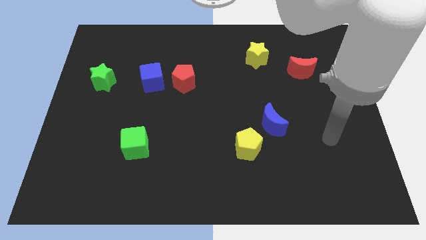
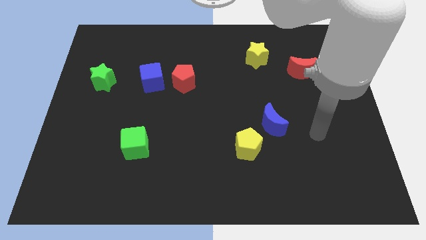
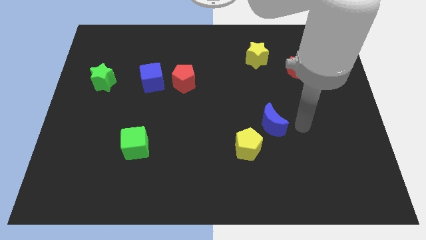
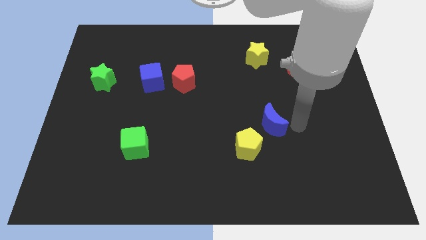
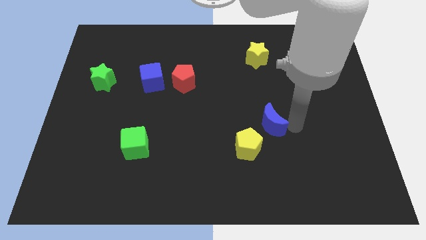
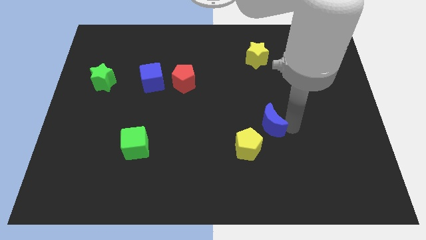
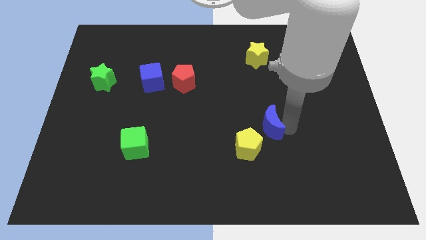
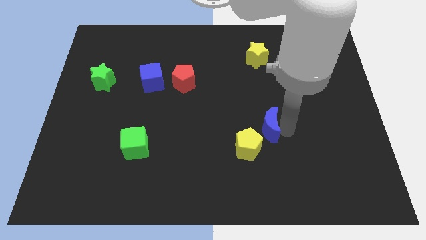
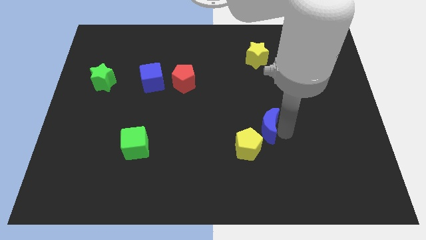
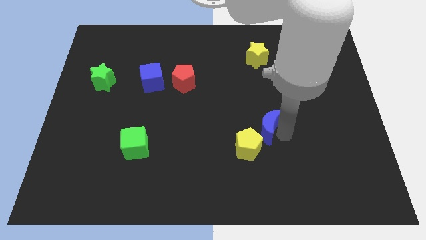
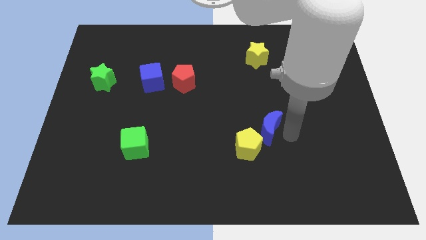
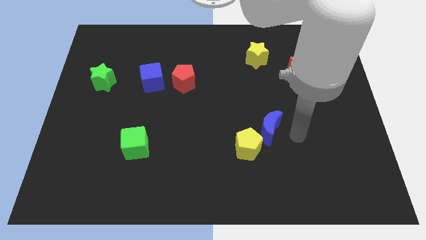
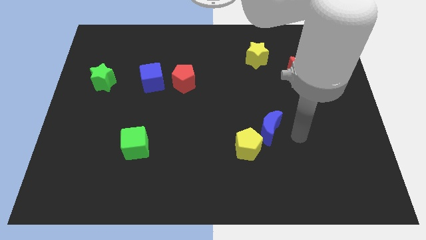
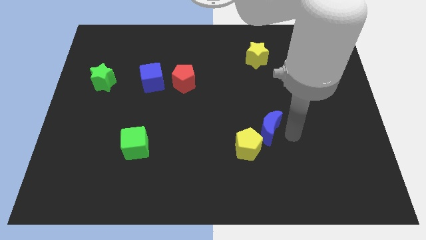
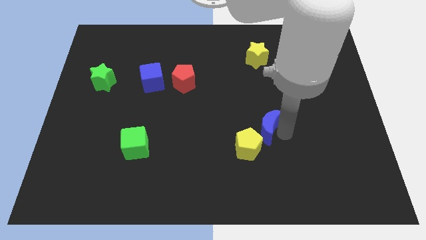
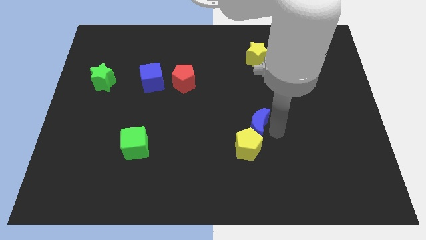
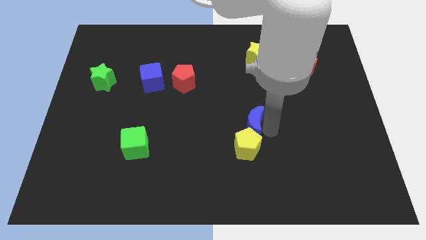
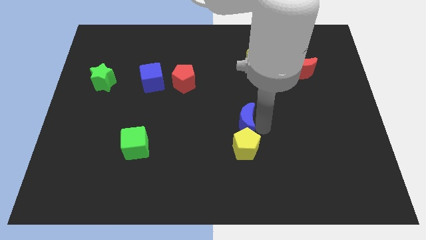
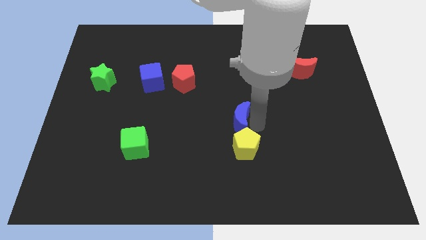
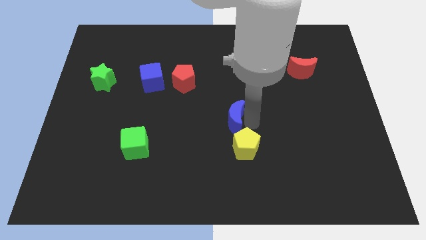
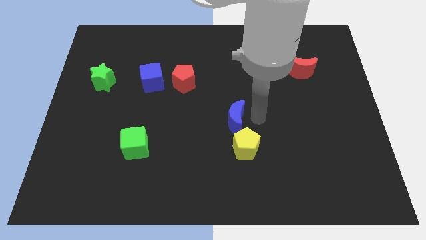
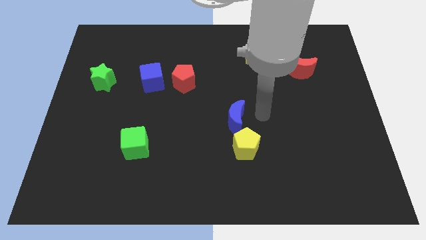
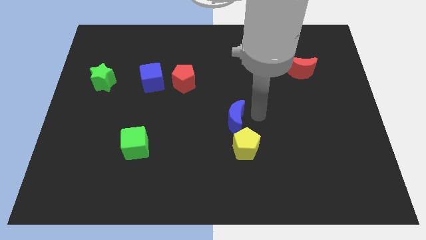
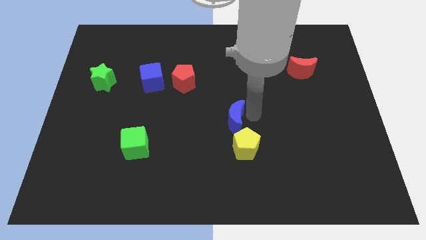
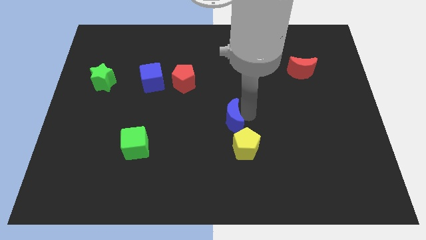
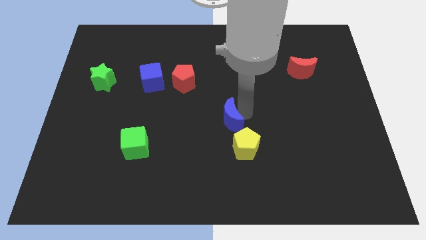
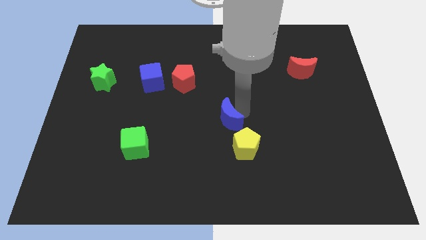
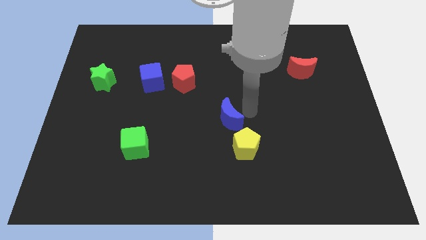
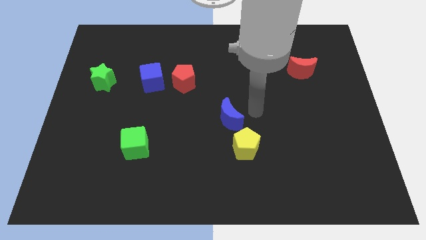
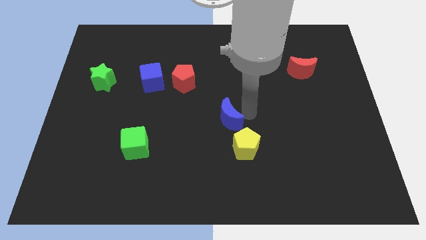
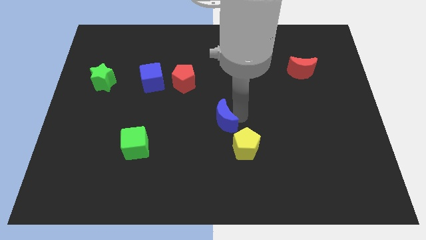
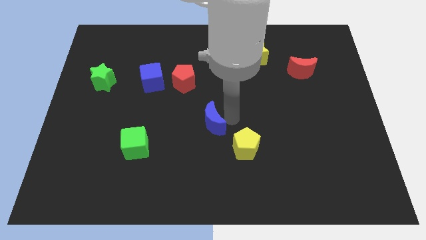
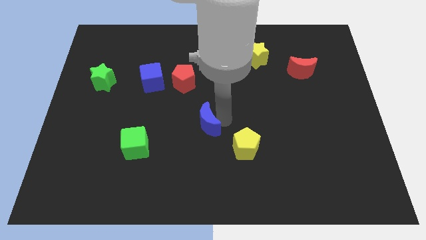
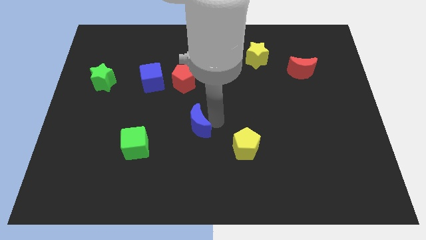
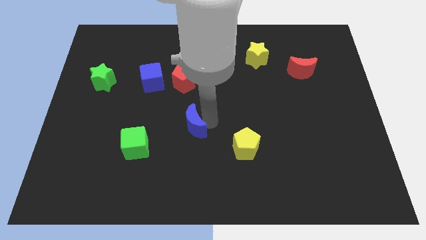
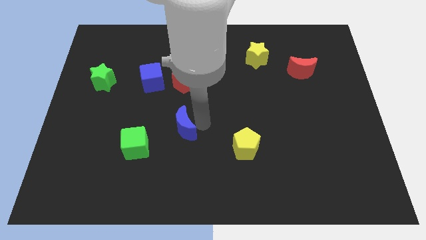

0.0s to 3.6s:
move the blue moon left

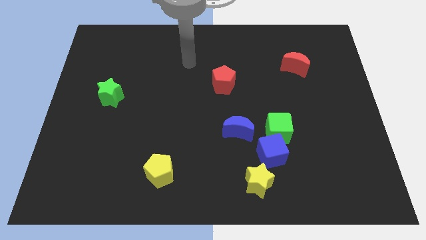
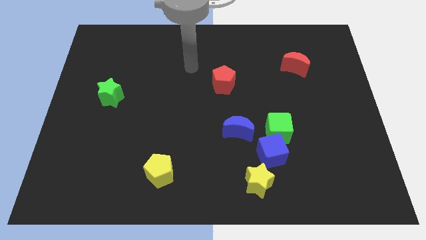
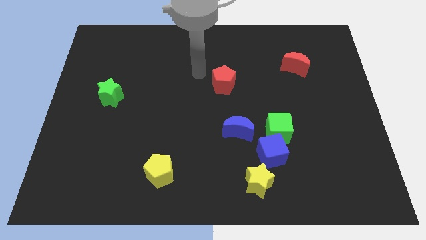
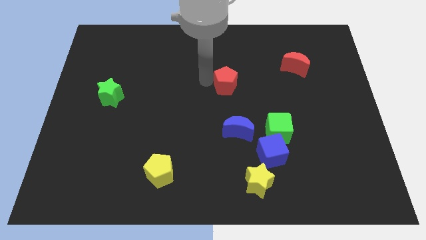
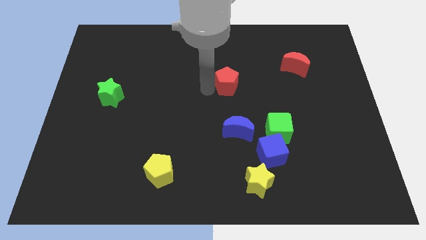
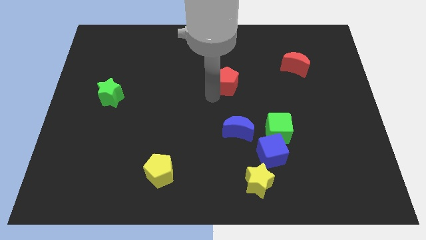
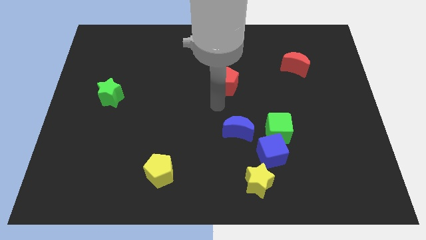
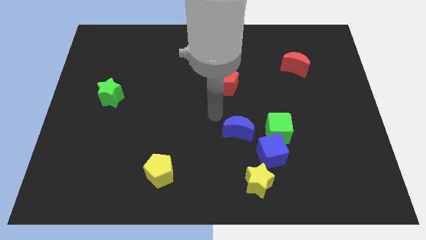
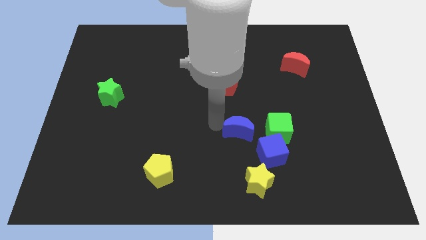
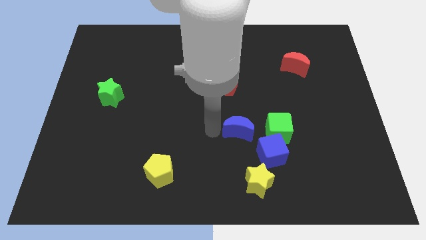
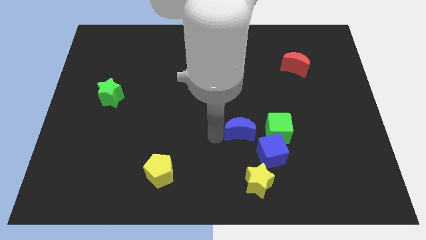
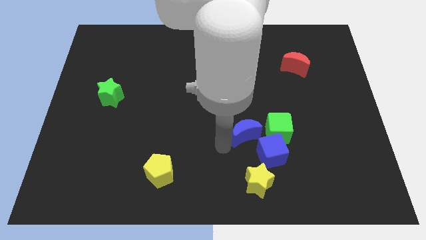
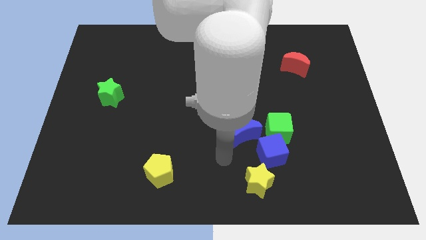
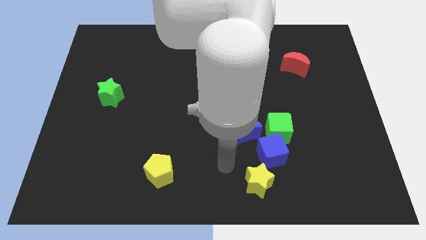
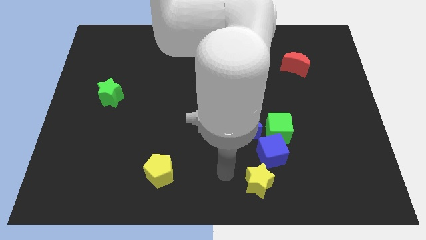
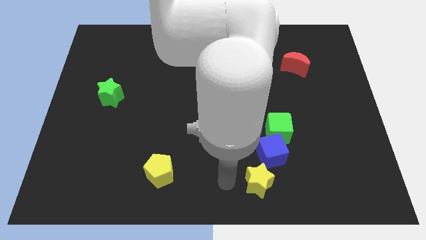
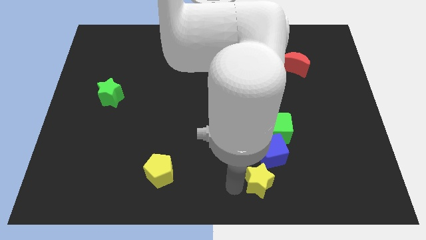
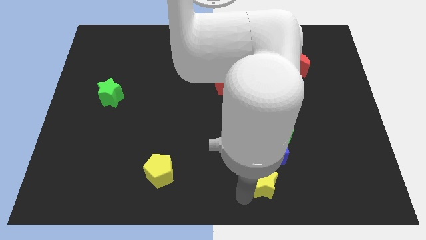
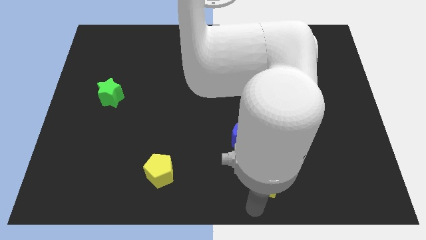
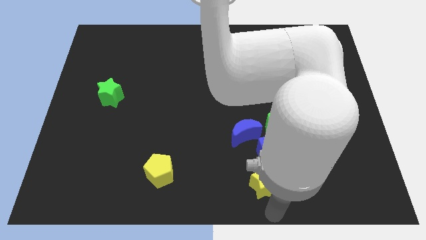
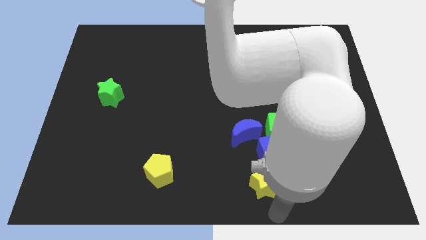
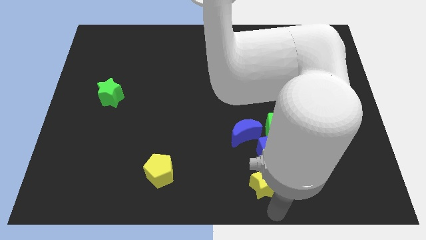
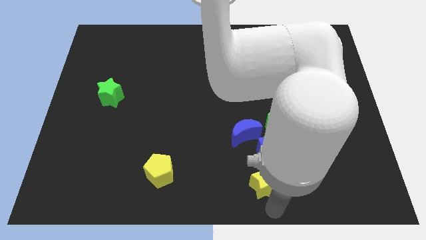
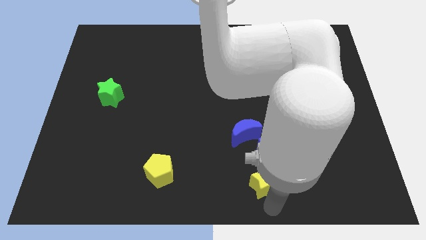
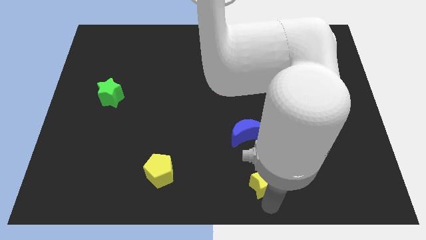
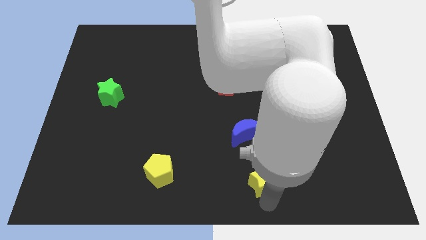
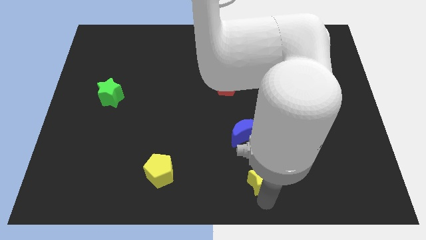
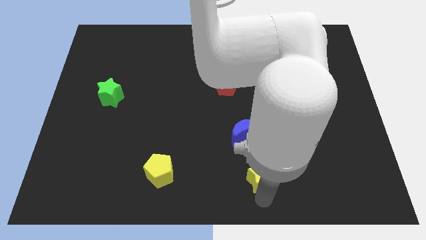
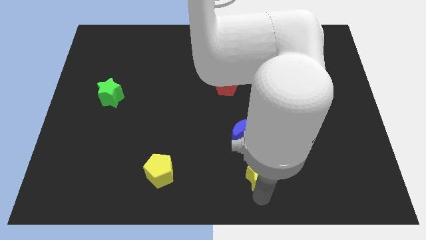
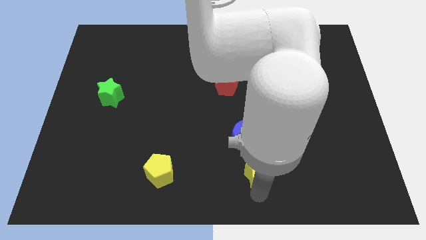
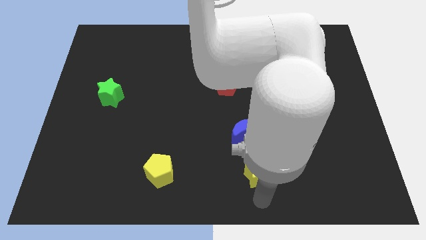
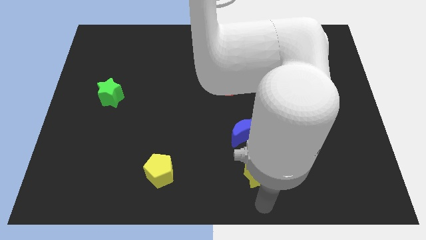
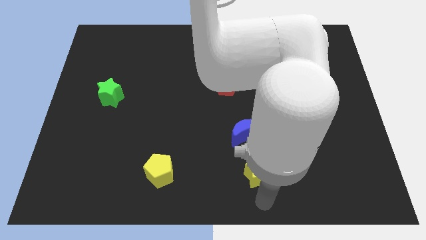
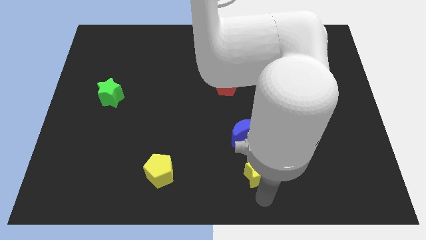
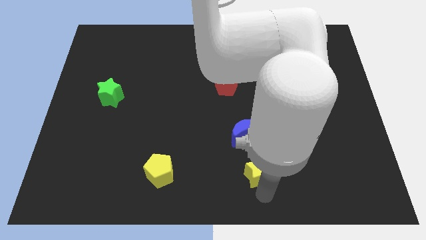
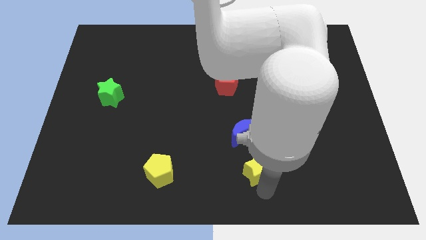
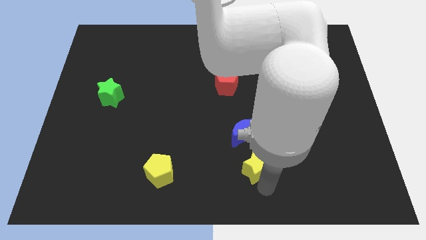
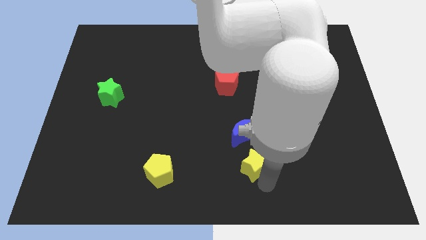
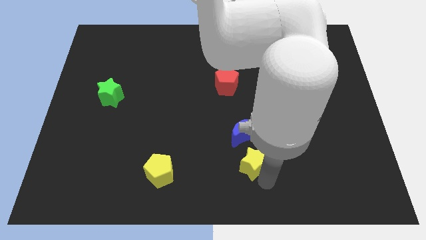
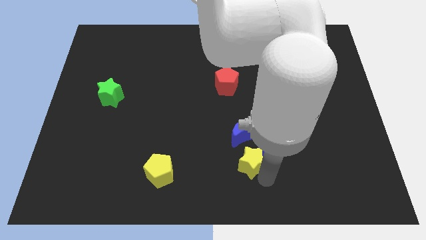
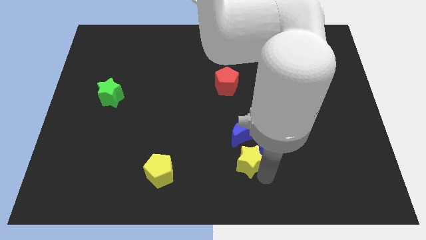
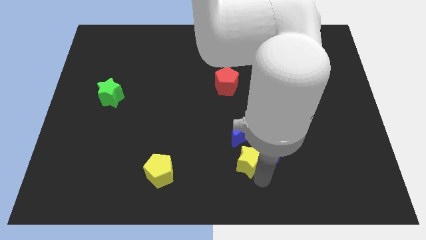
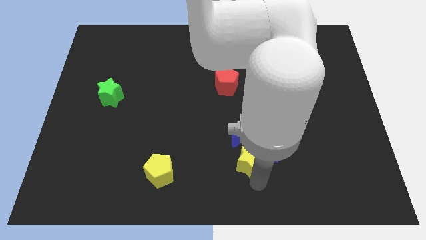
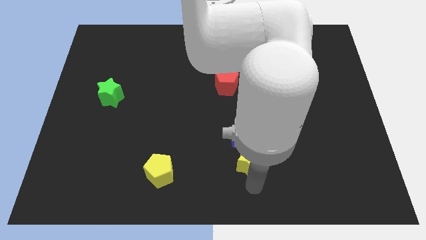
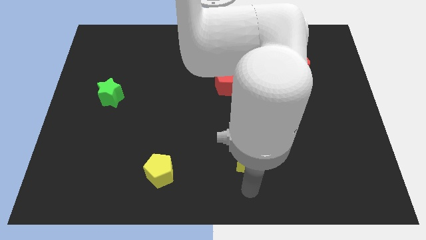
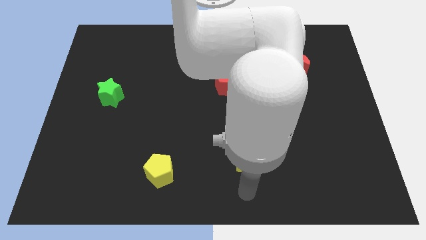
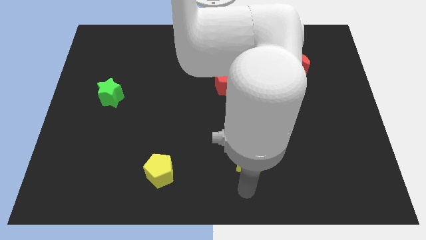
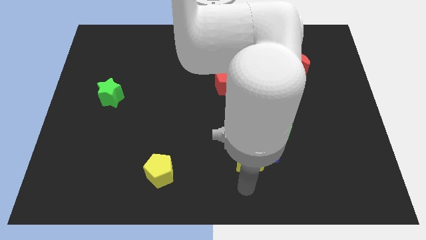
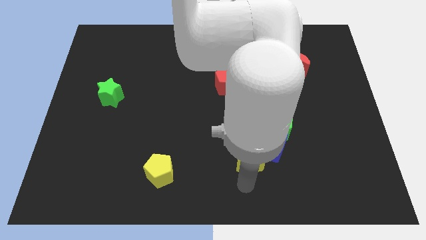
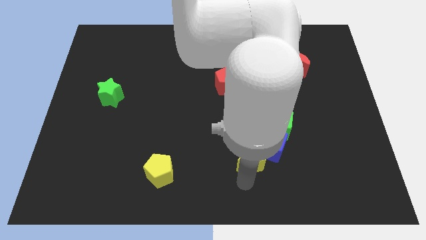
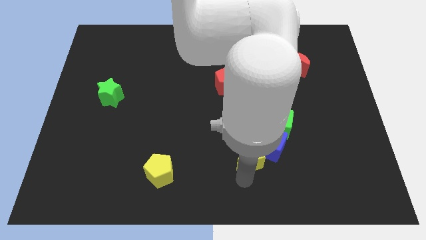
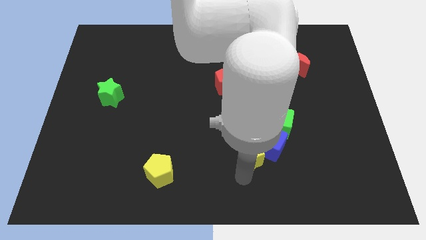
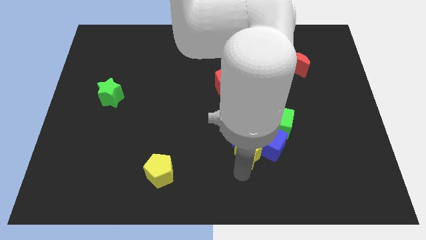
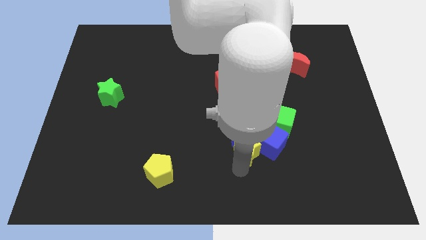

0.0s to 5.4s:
slightly move the yellow star upwards
